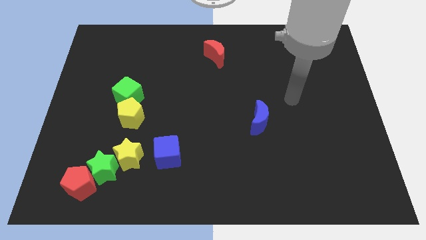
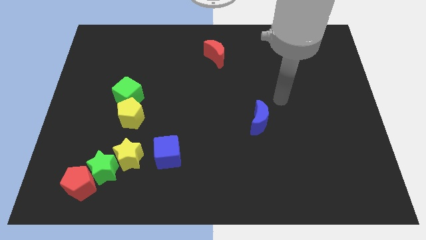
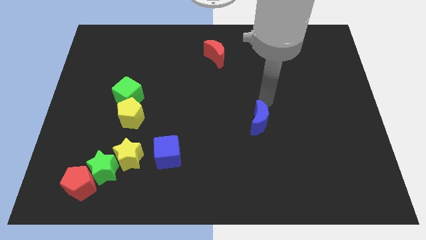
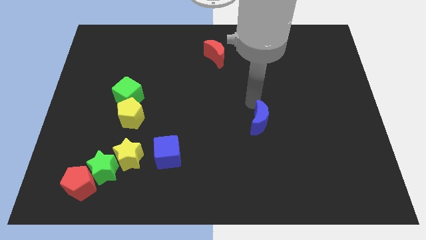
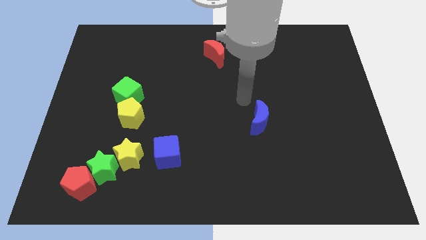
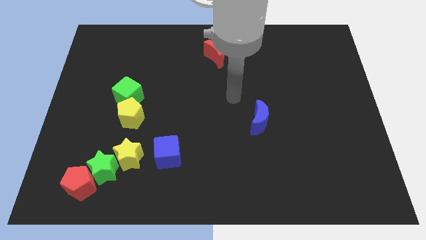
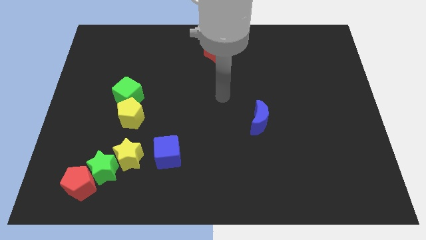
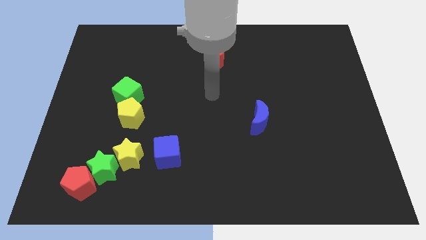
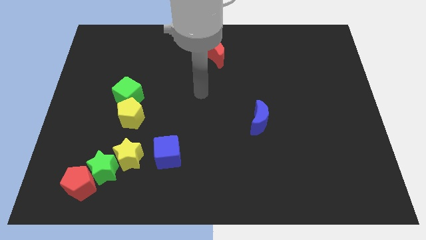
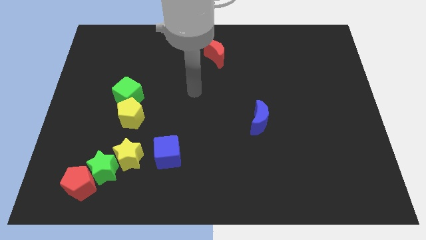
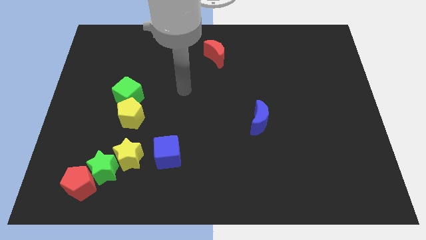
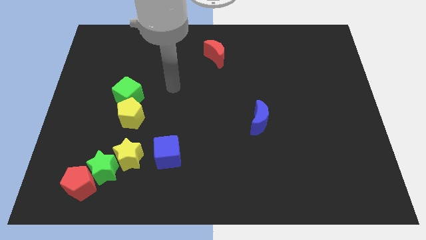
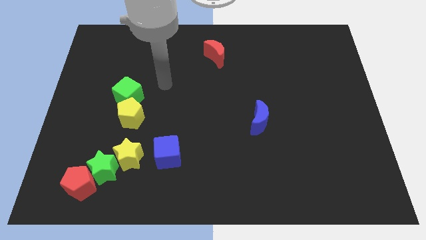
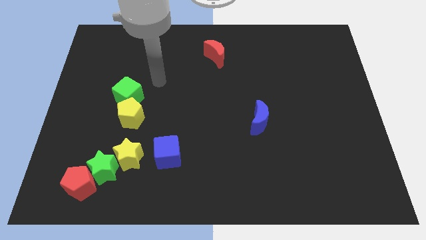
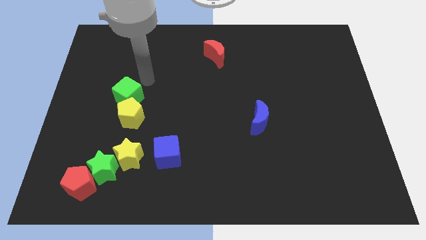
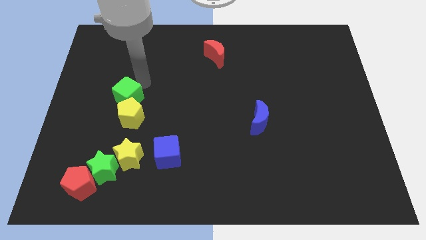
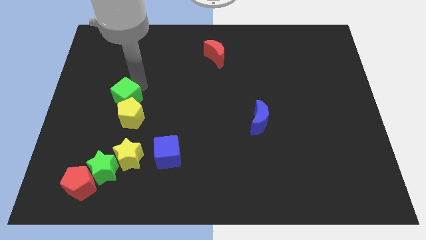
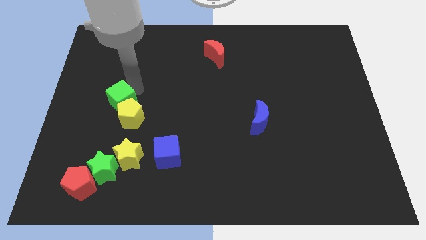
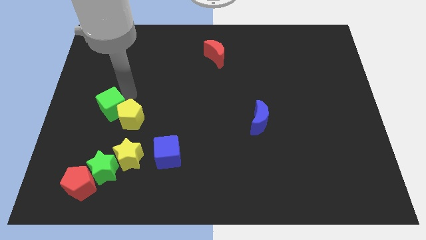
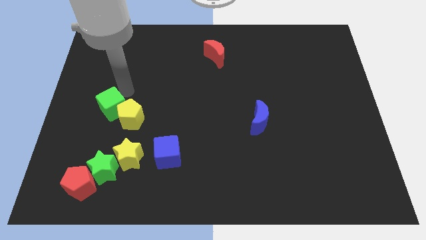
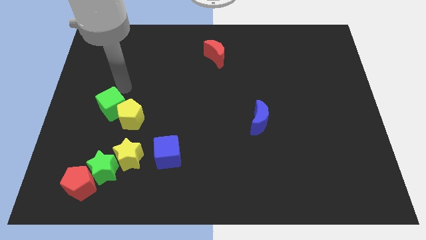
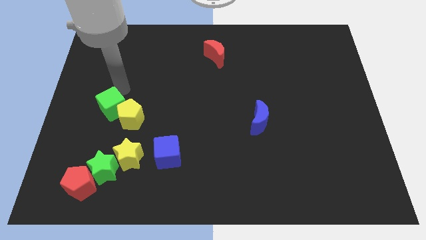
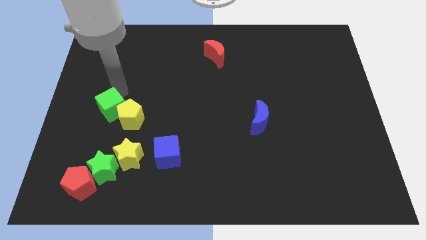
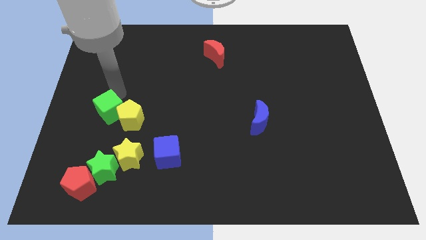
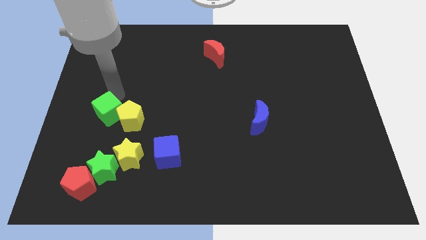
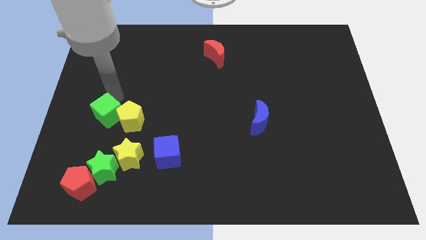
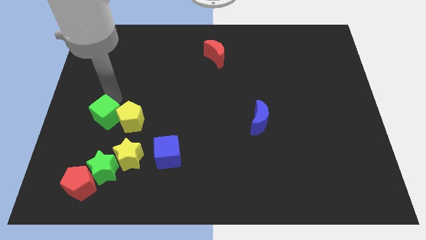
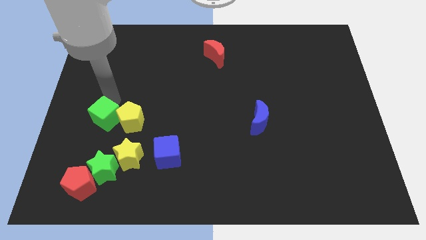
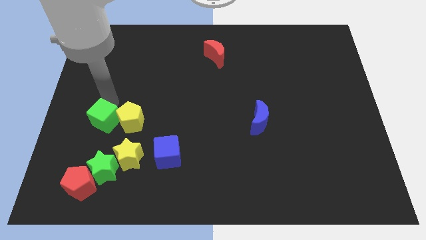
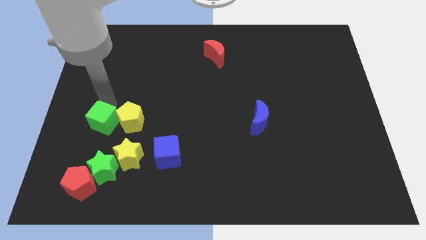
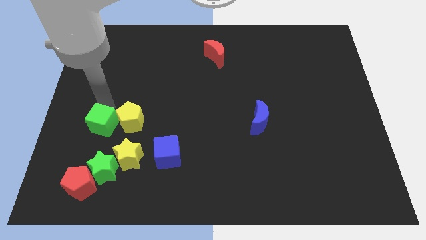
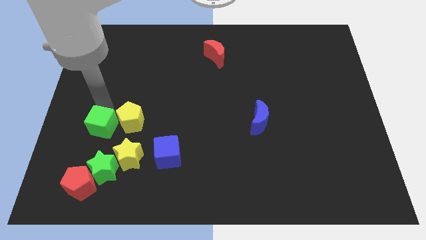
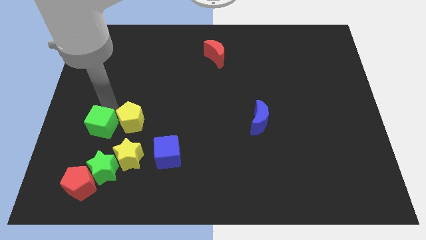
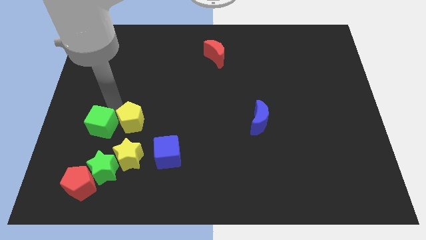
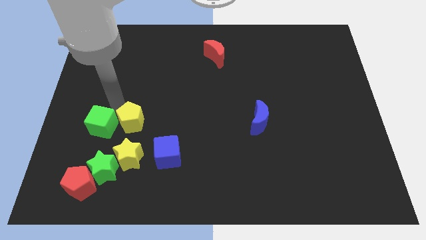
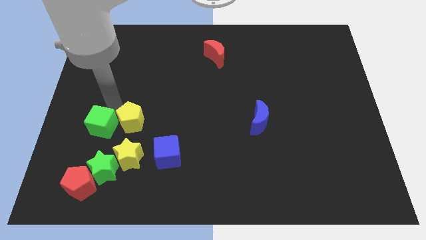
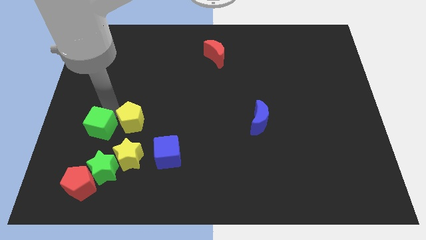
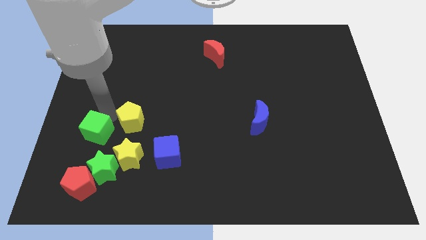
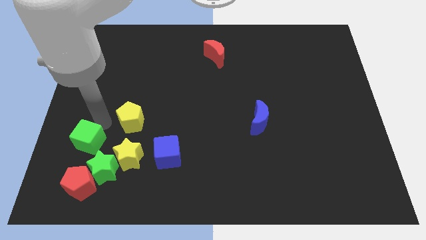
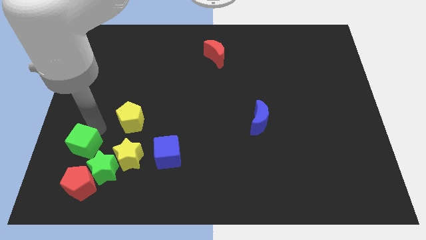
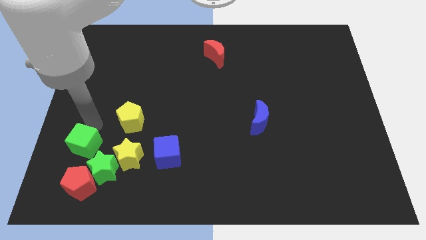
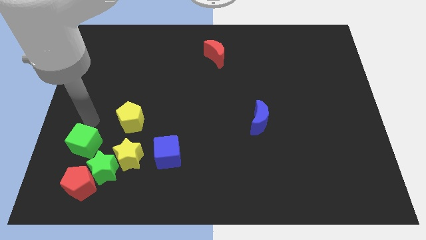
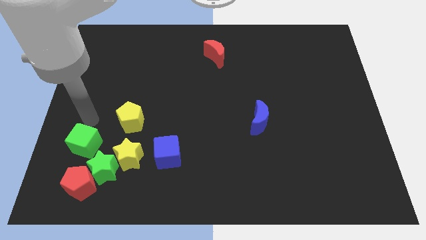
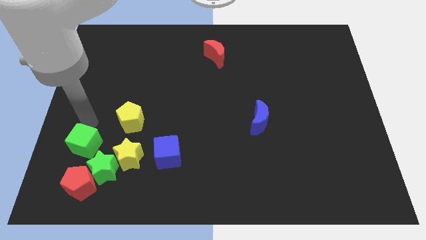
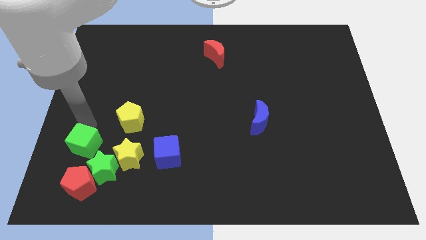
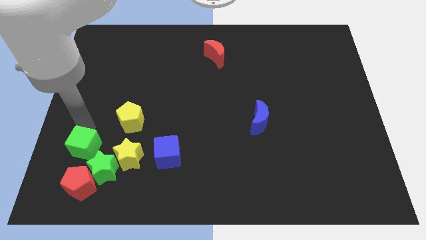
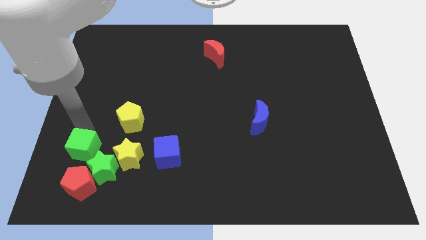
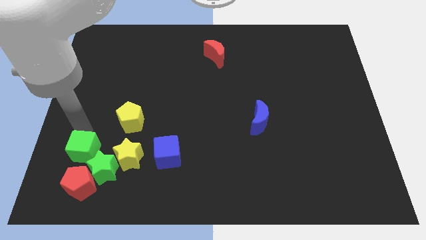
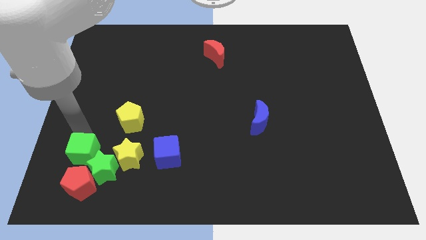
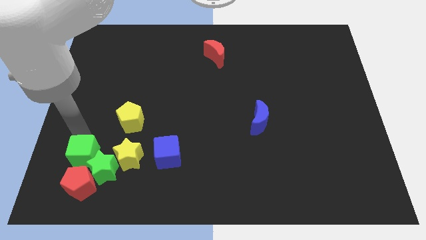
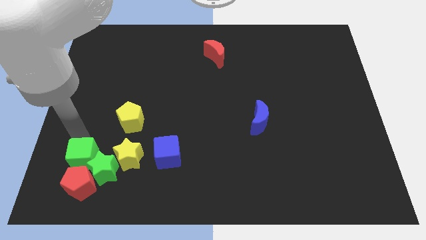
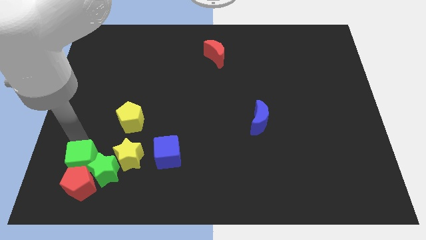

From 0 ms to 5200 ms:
put the green cube to the red pentagon

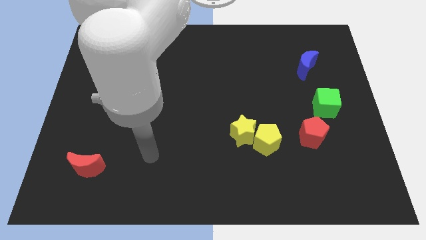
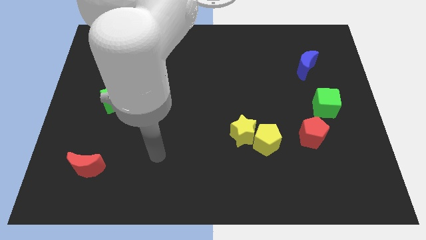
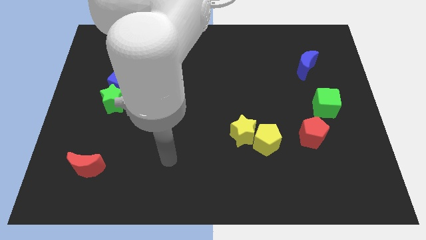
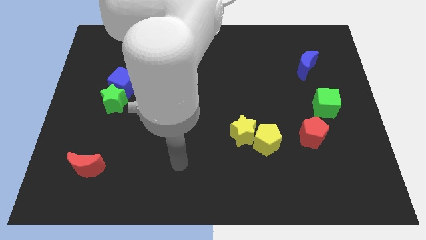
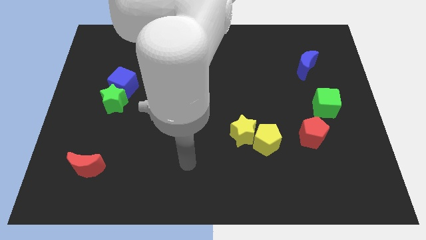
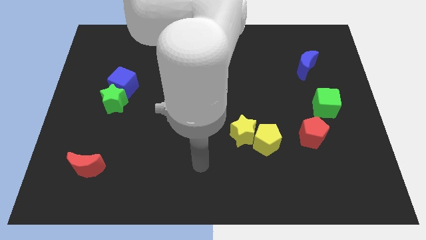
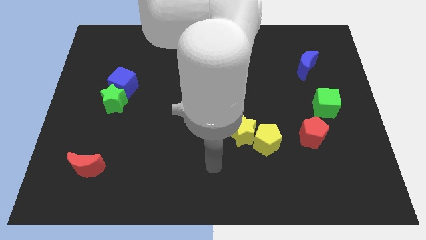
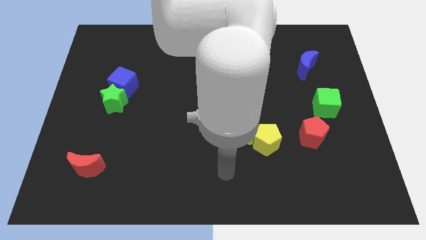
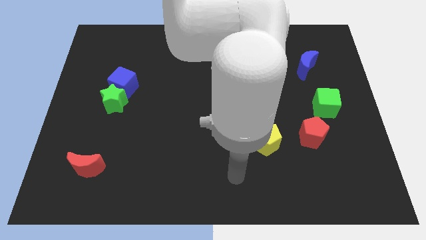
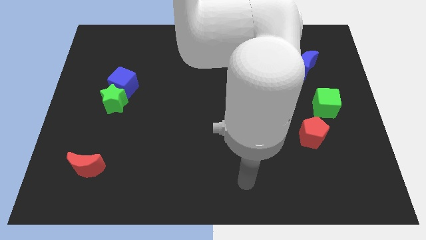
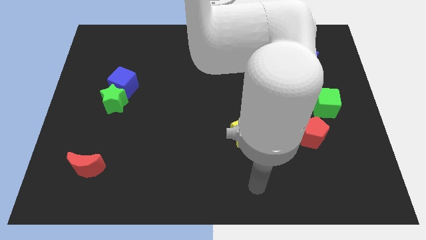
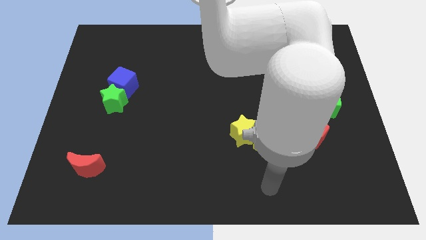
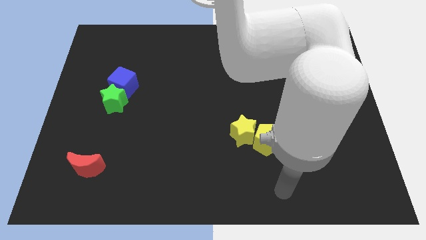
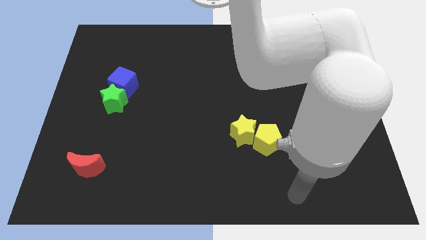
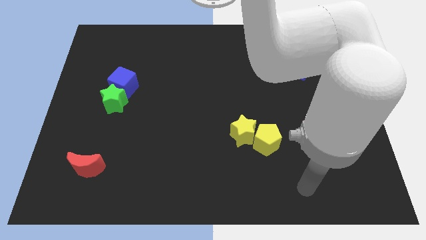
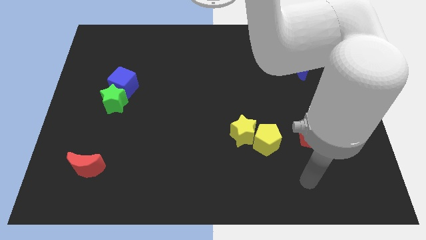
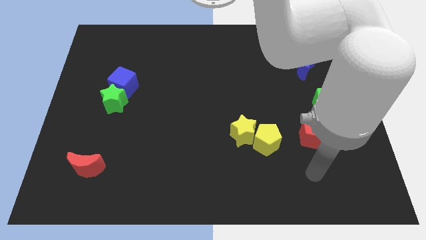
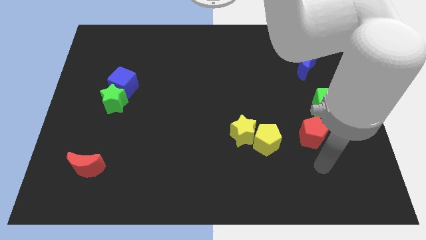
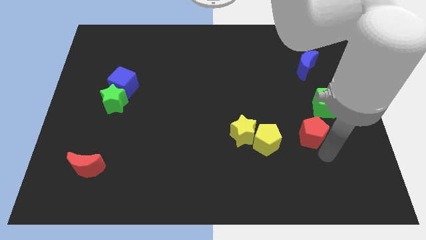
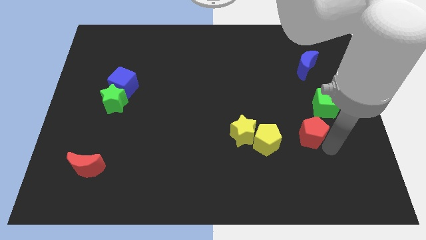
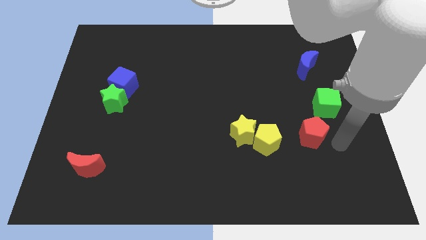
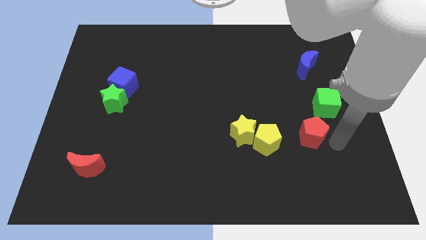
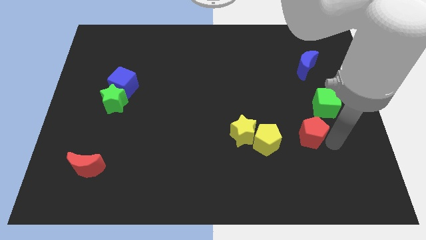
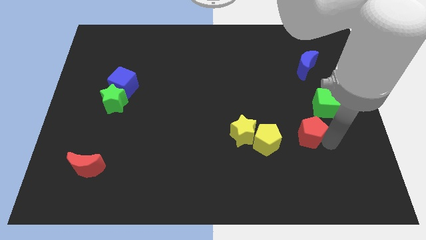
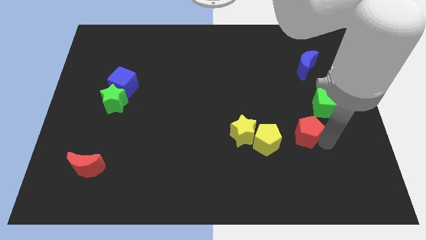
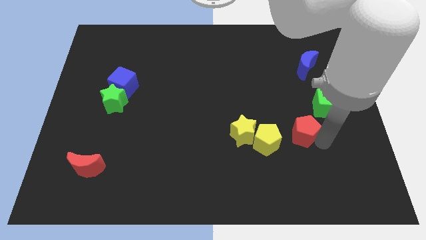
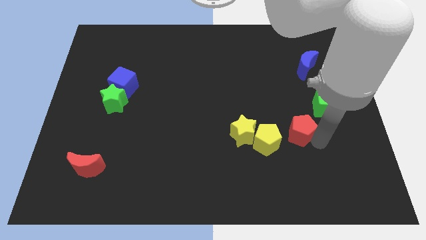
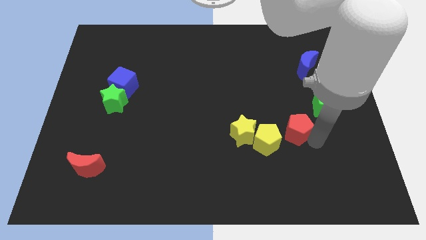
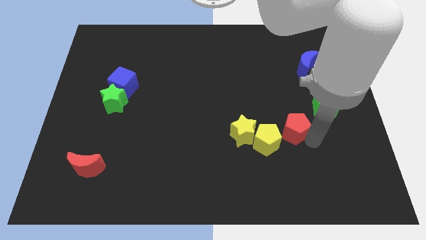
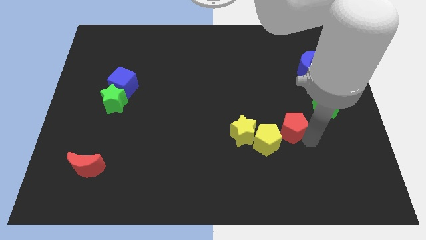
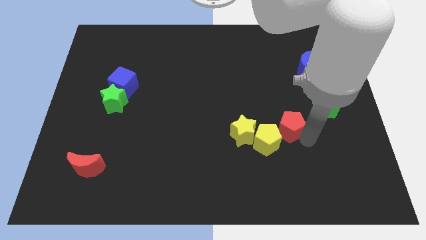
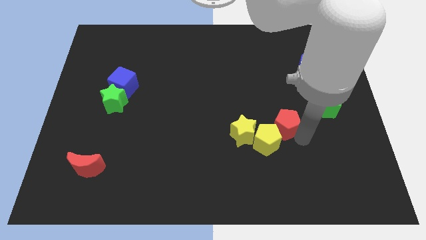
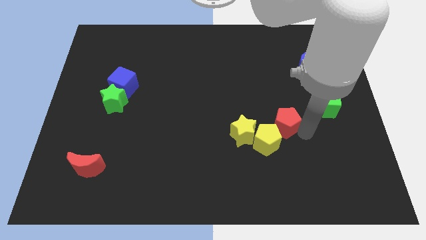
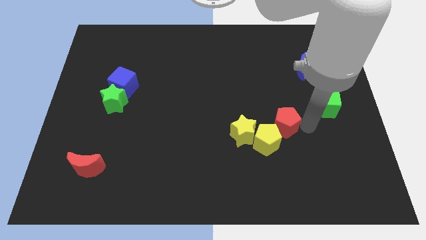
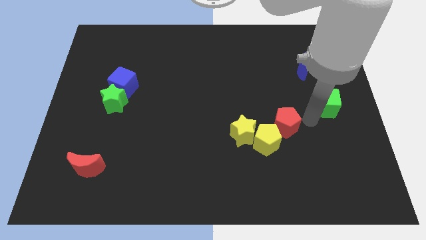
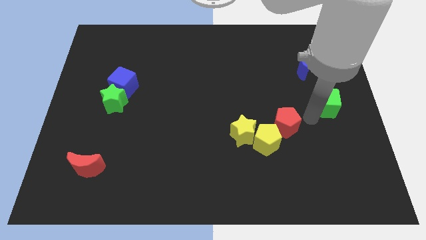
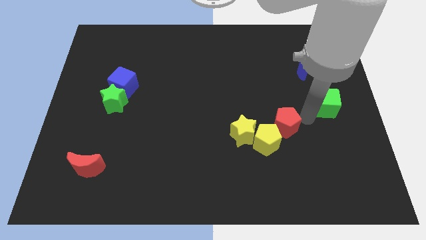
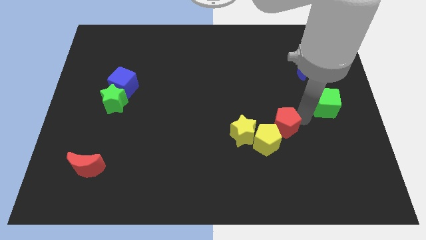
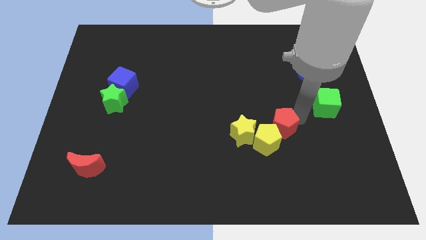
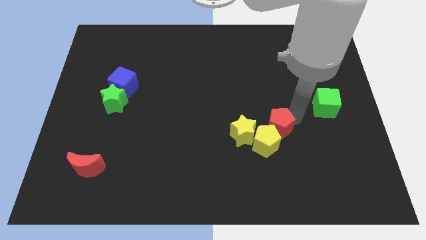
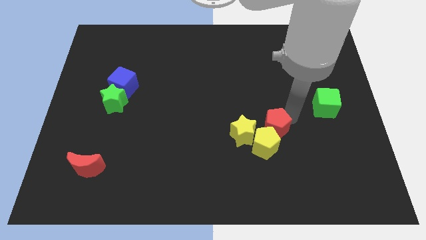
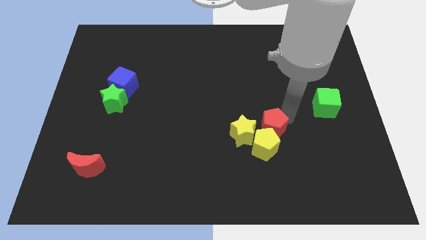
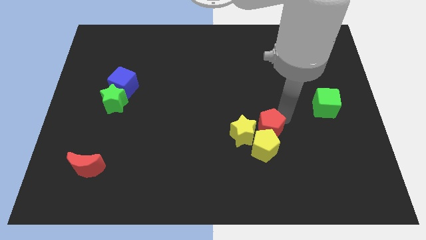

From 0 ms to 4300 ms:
put the red pentagon towards the yellow star
